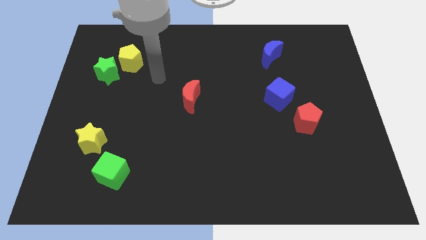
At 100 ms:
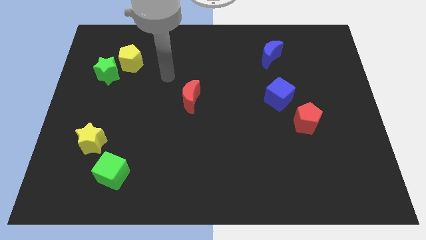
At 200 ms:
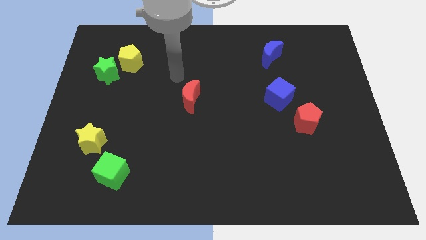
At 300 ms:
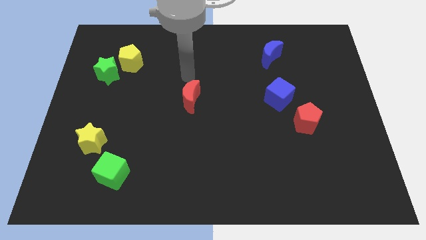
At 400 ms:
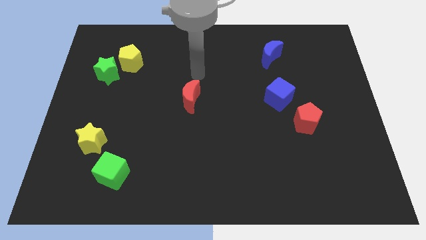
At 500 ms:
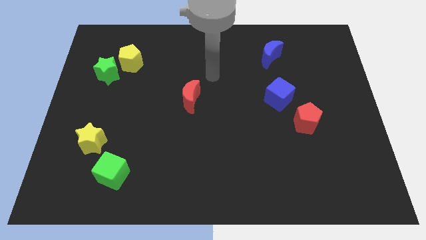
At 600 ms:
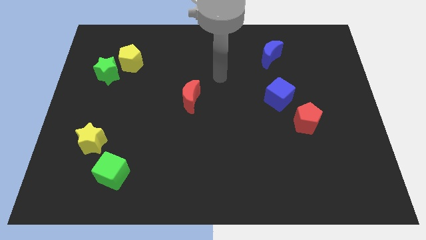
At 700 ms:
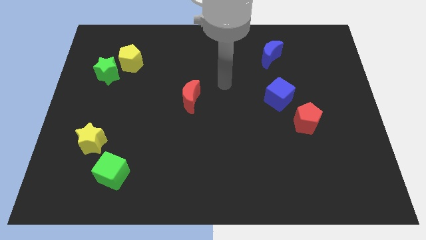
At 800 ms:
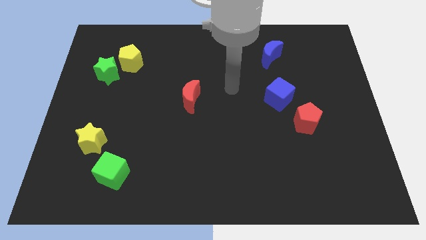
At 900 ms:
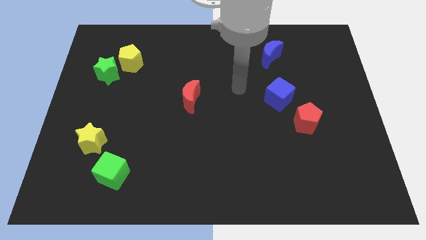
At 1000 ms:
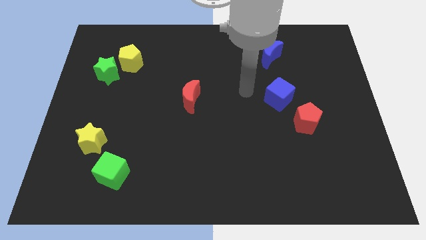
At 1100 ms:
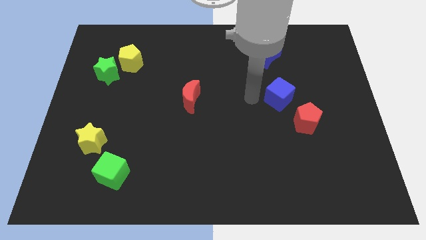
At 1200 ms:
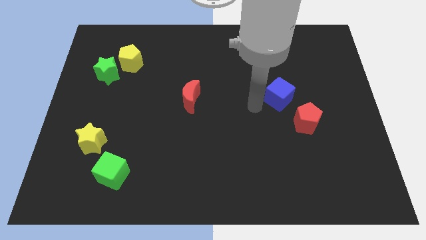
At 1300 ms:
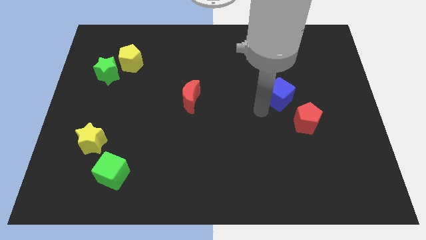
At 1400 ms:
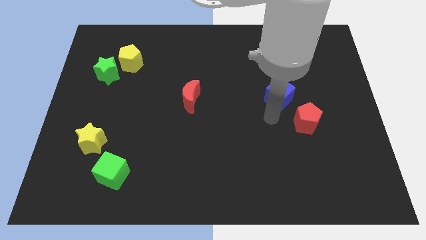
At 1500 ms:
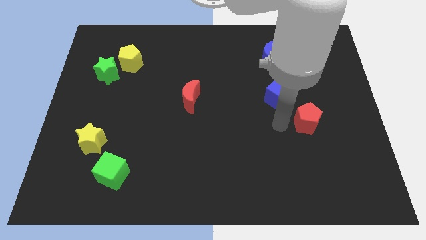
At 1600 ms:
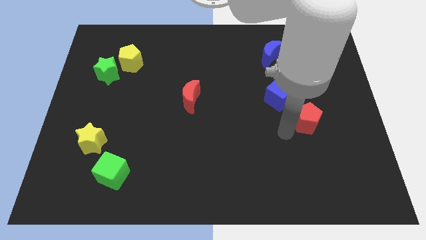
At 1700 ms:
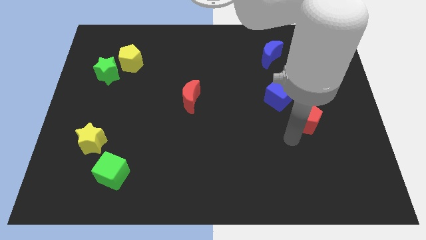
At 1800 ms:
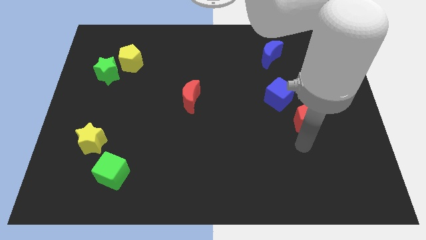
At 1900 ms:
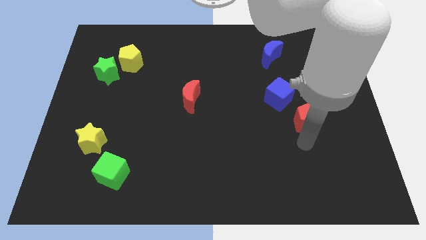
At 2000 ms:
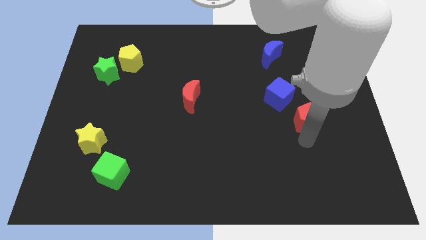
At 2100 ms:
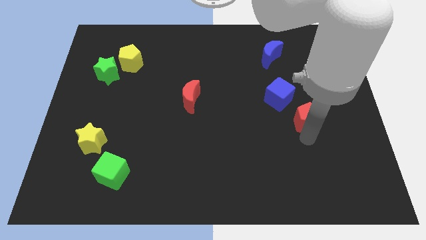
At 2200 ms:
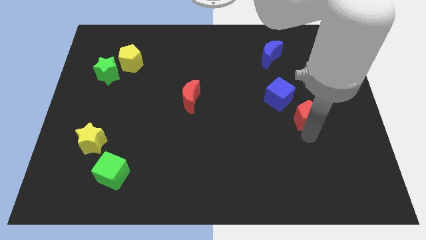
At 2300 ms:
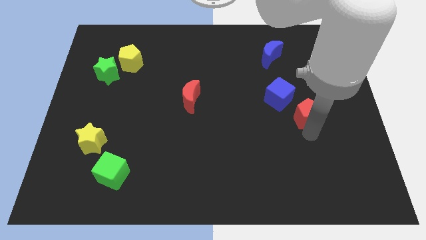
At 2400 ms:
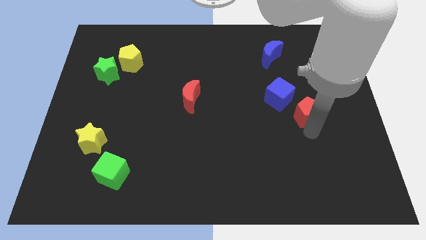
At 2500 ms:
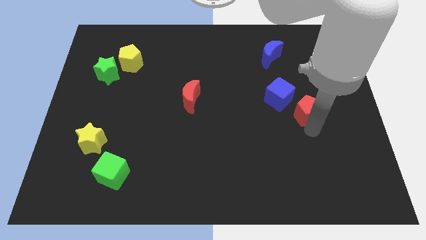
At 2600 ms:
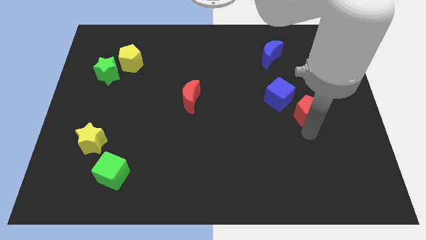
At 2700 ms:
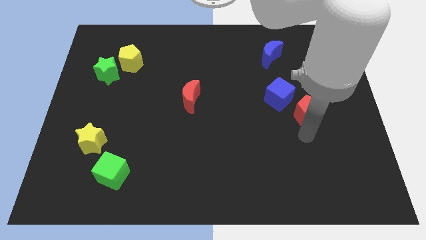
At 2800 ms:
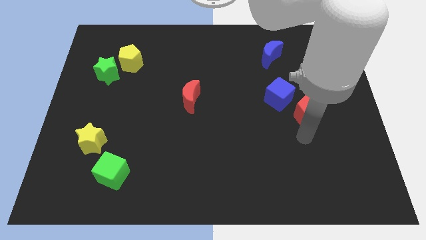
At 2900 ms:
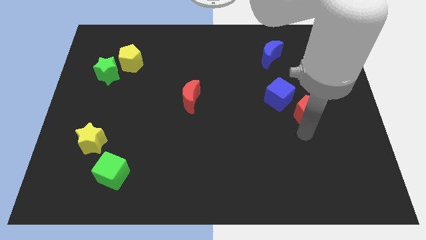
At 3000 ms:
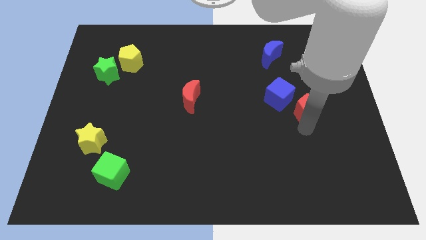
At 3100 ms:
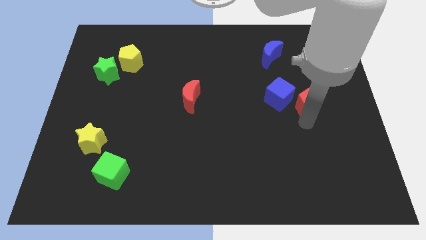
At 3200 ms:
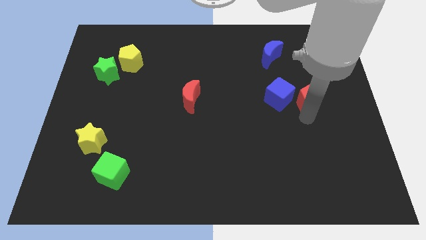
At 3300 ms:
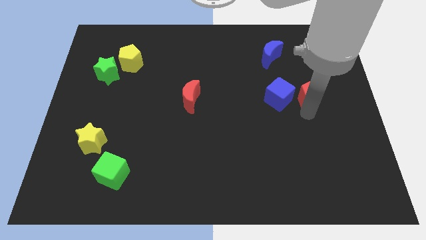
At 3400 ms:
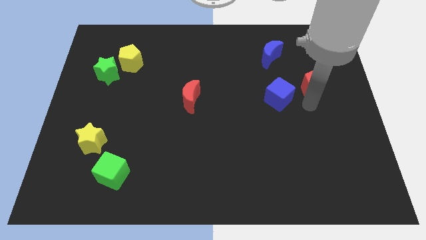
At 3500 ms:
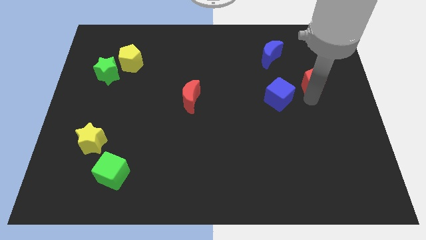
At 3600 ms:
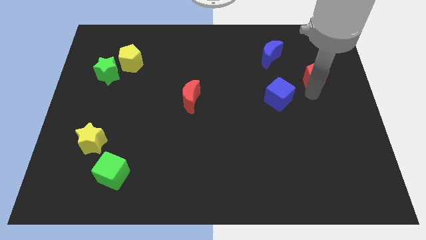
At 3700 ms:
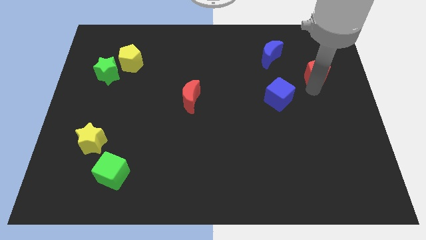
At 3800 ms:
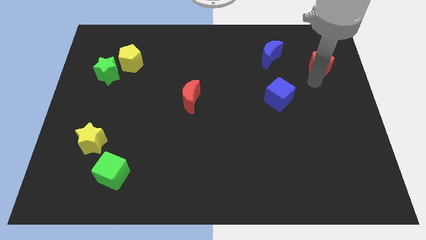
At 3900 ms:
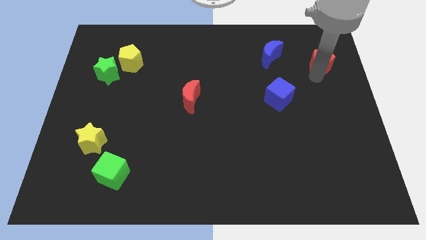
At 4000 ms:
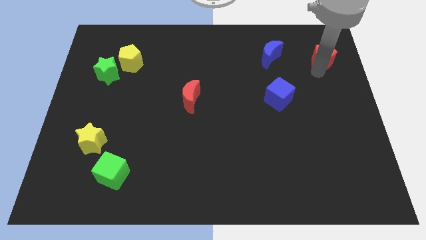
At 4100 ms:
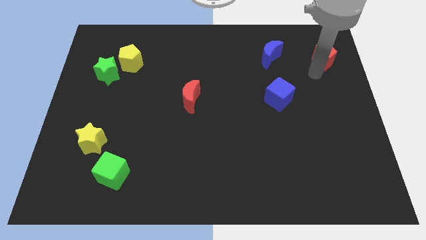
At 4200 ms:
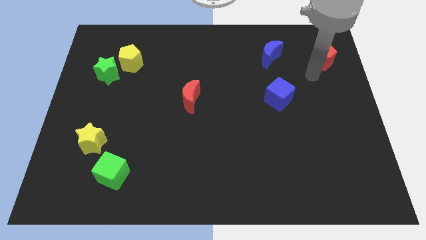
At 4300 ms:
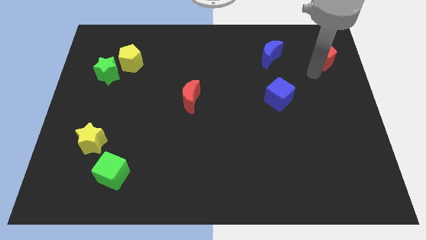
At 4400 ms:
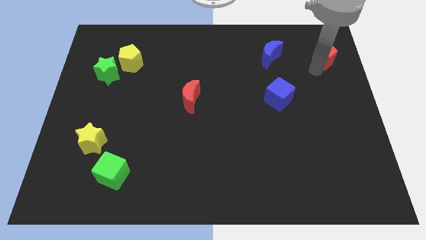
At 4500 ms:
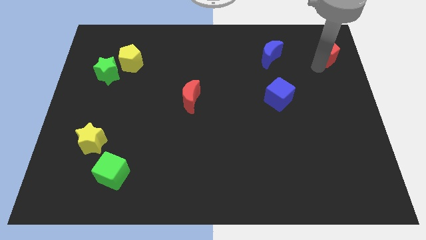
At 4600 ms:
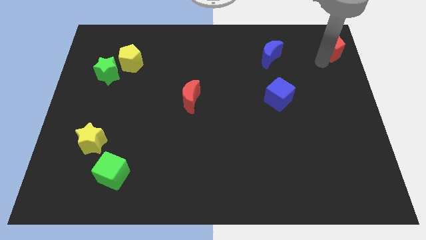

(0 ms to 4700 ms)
put the red pentagon to the upper right corner

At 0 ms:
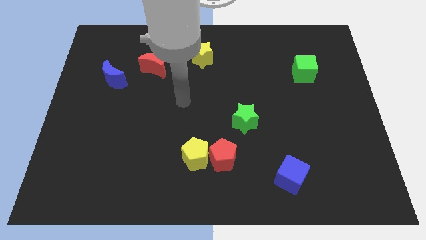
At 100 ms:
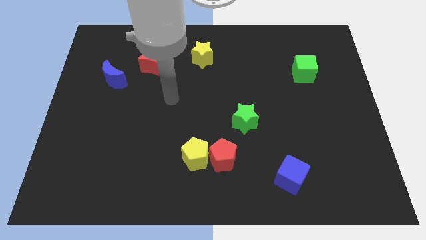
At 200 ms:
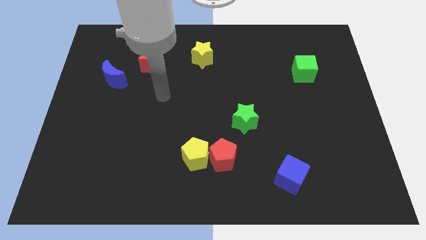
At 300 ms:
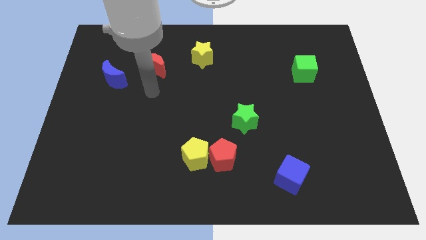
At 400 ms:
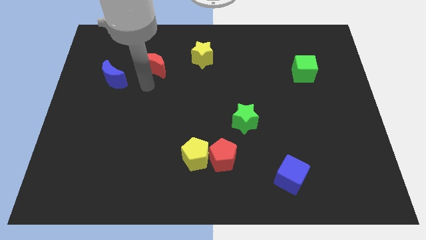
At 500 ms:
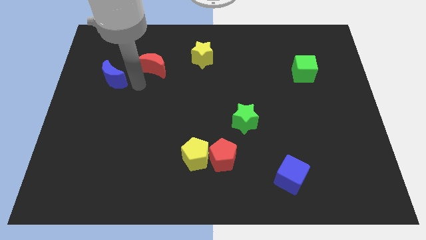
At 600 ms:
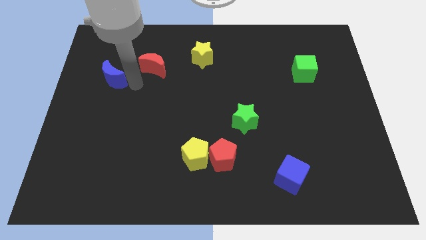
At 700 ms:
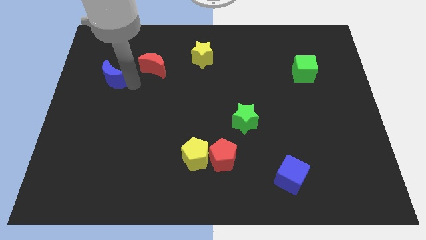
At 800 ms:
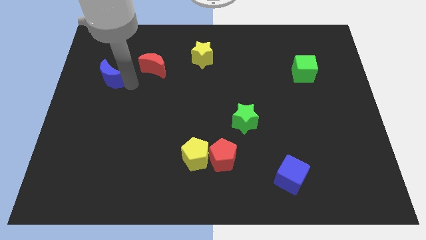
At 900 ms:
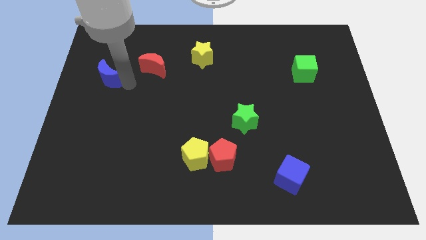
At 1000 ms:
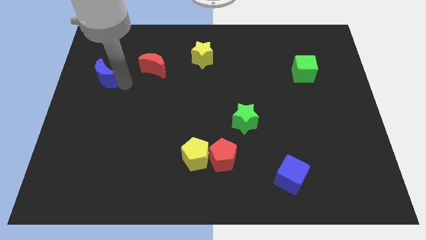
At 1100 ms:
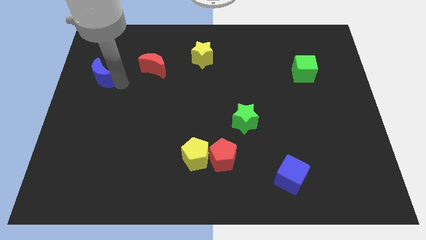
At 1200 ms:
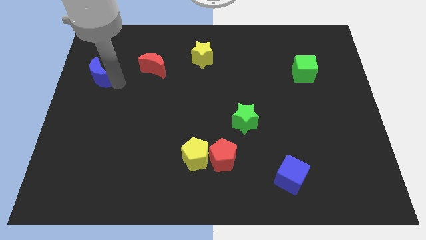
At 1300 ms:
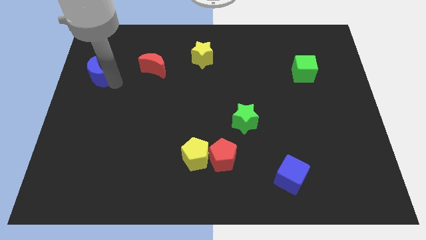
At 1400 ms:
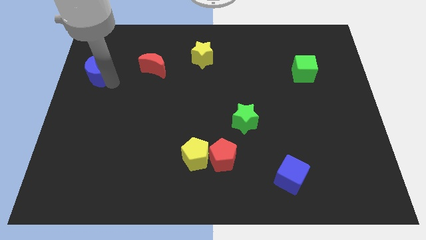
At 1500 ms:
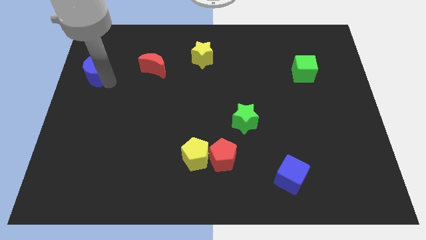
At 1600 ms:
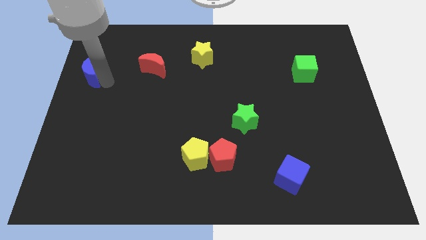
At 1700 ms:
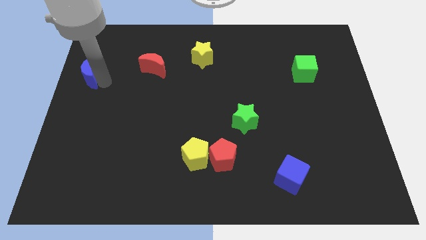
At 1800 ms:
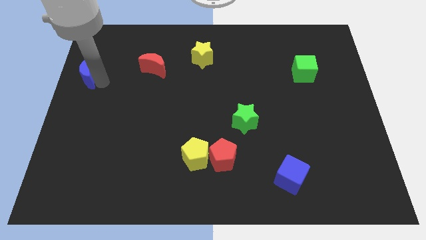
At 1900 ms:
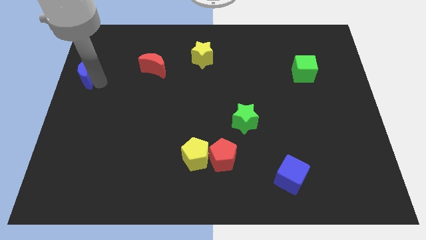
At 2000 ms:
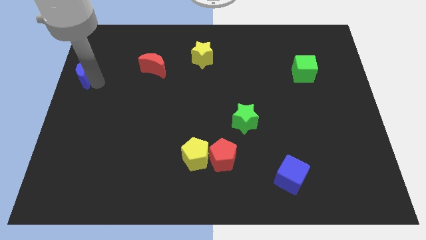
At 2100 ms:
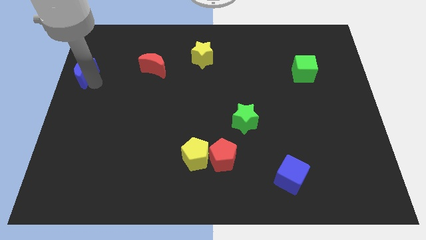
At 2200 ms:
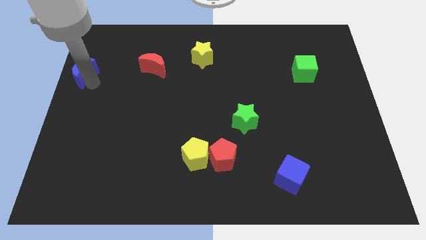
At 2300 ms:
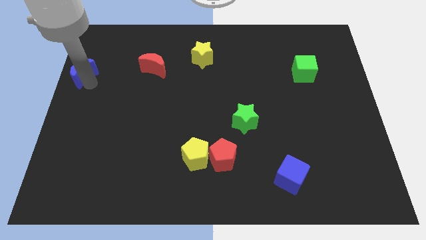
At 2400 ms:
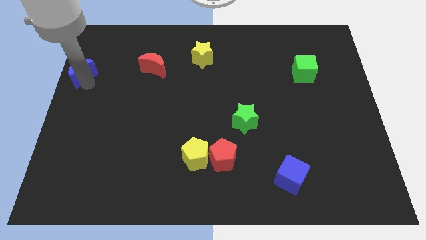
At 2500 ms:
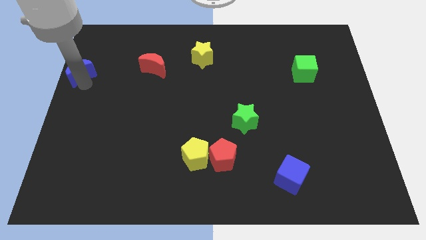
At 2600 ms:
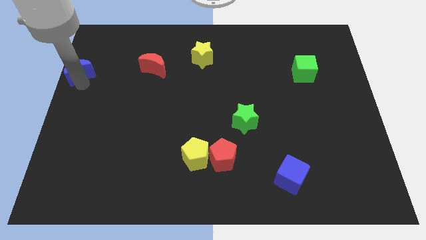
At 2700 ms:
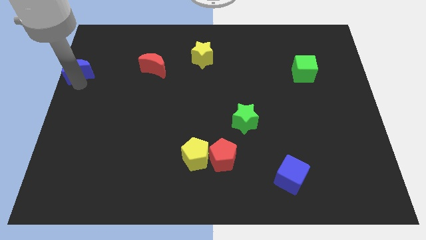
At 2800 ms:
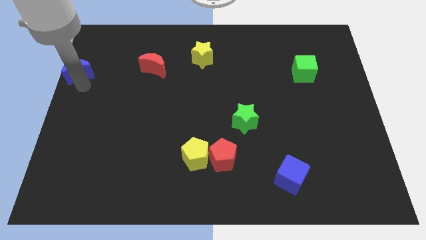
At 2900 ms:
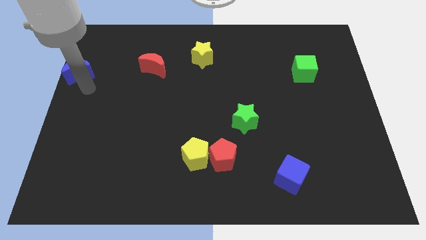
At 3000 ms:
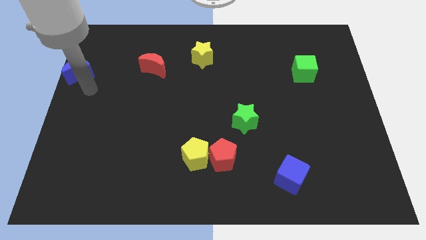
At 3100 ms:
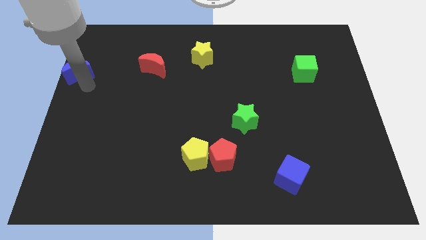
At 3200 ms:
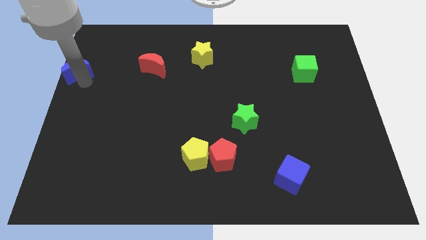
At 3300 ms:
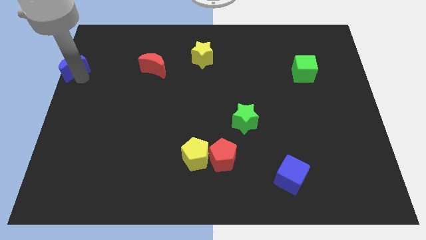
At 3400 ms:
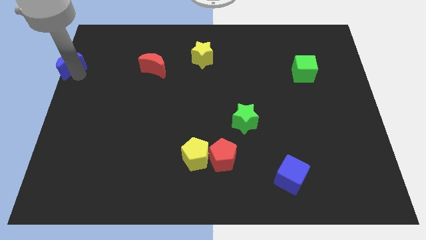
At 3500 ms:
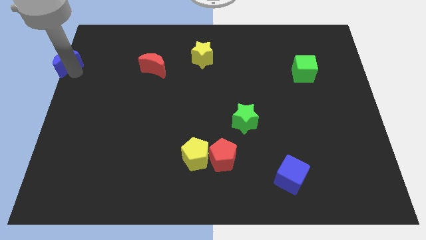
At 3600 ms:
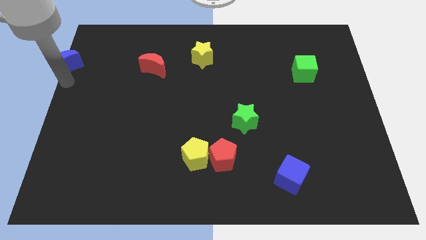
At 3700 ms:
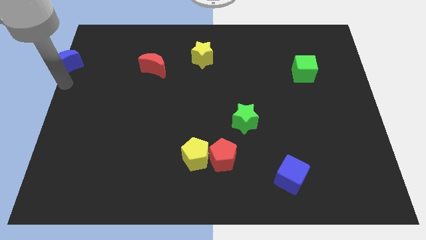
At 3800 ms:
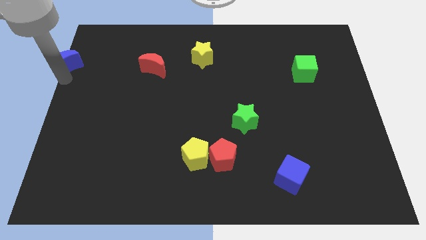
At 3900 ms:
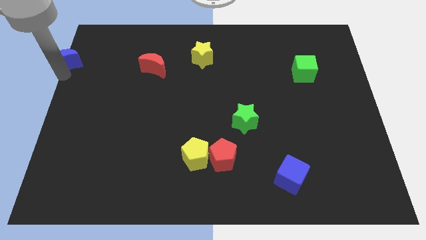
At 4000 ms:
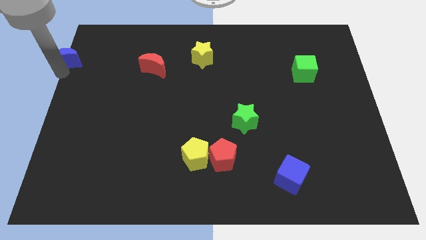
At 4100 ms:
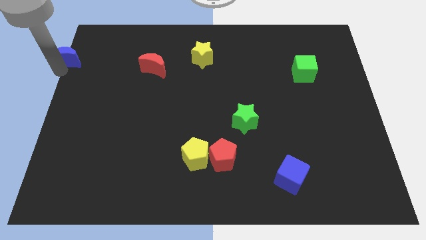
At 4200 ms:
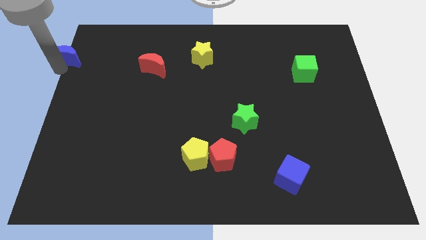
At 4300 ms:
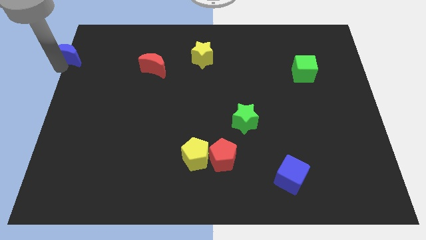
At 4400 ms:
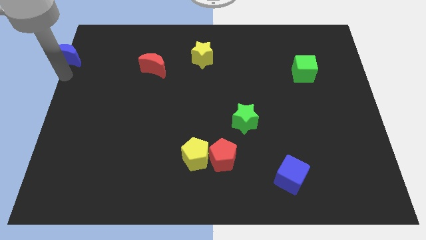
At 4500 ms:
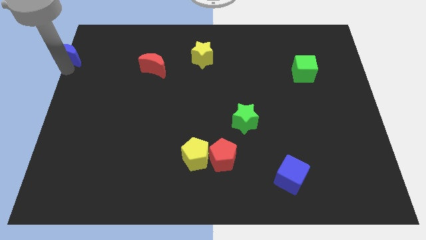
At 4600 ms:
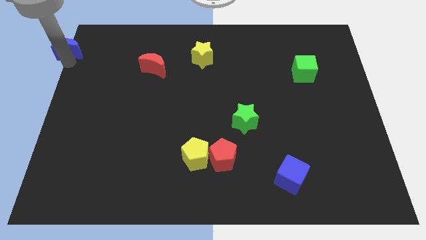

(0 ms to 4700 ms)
push the blue moon to the top left of the board
